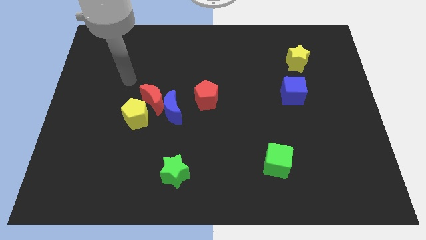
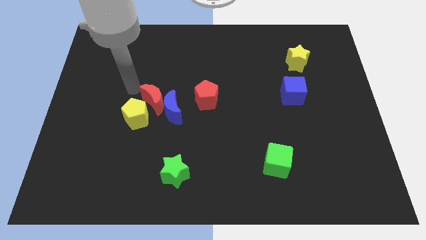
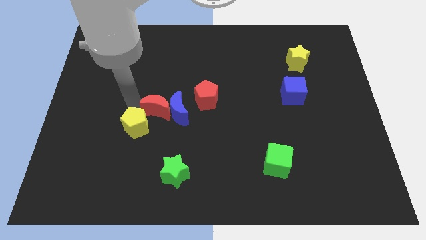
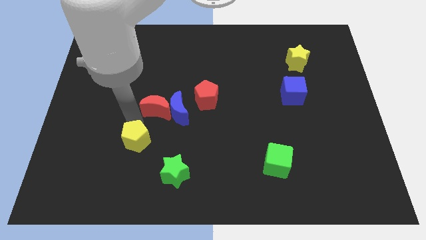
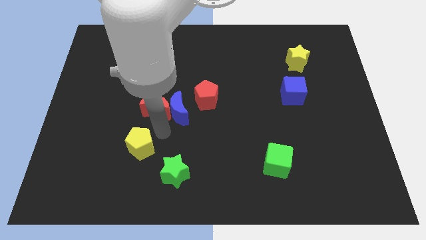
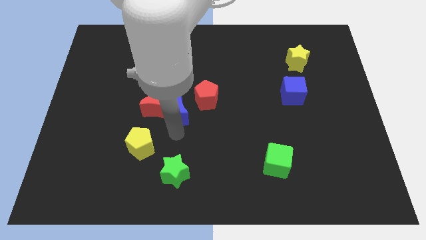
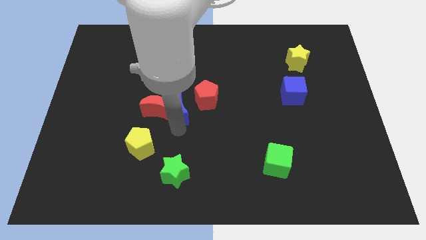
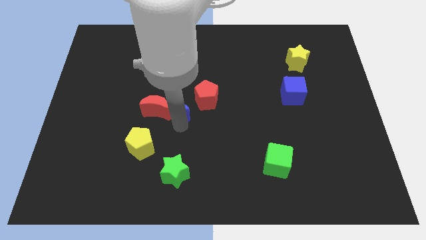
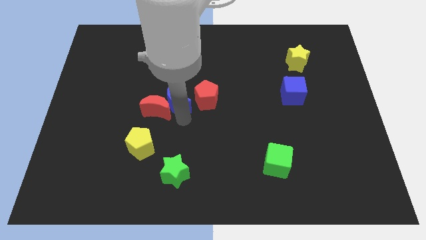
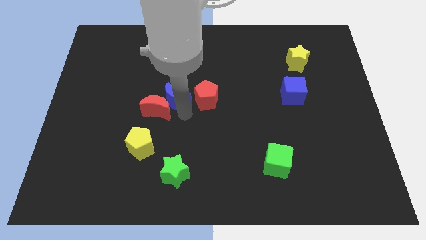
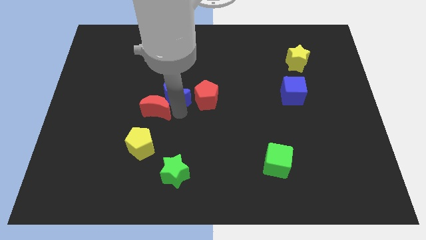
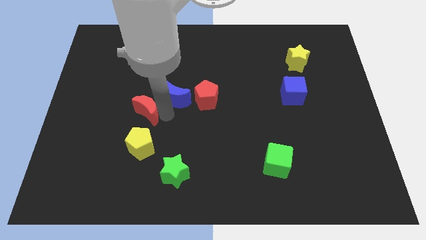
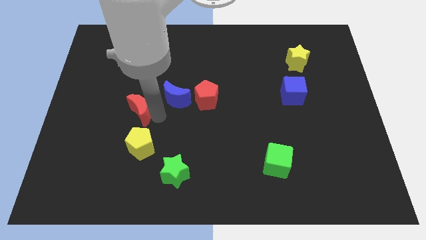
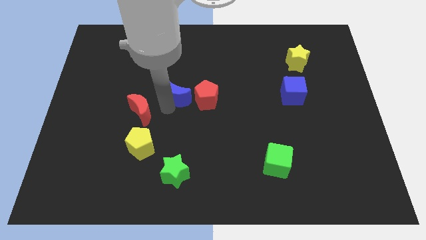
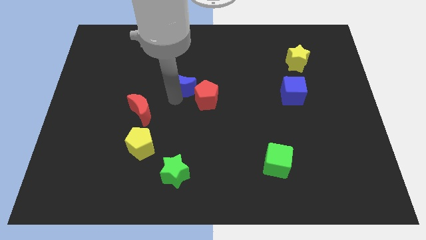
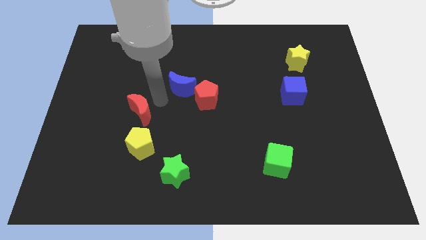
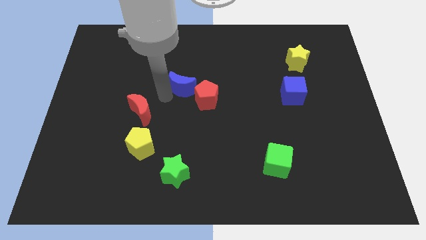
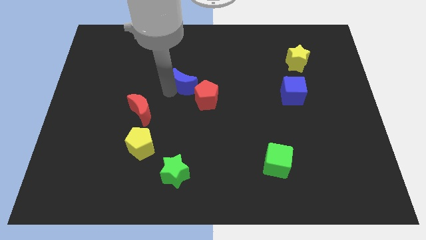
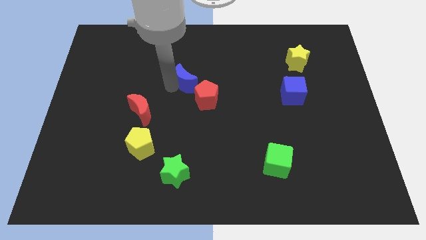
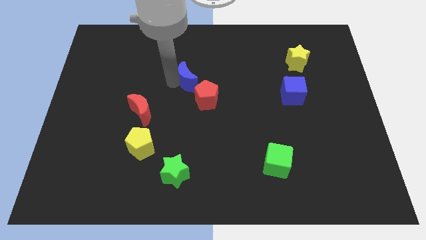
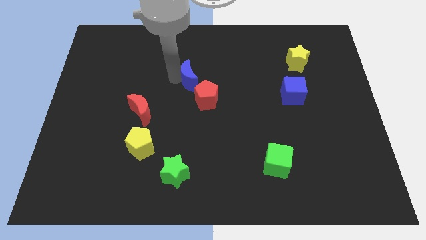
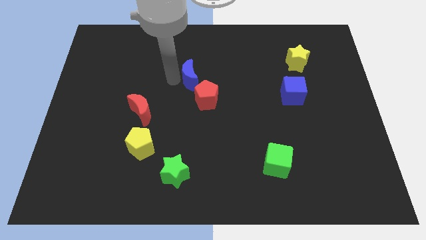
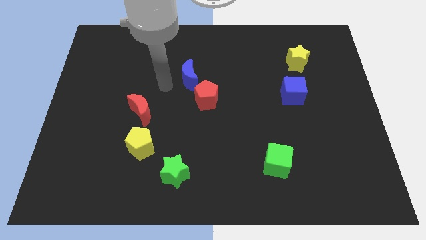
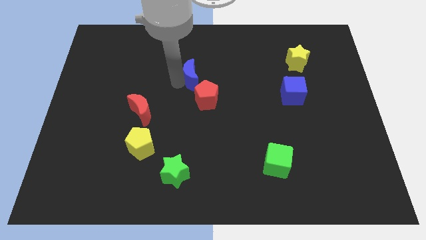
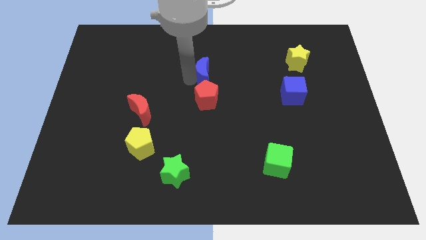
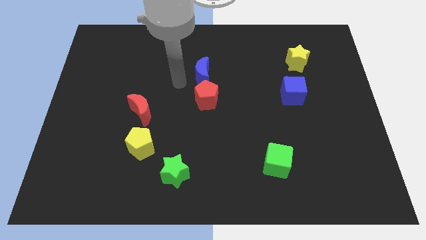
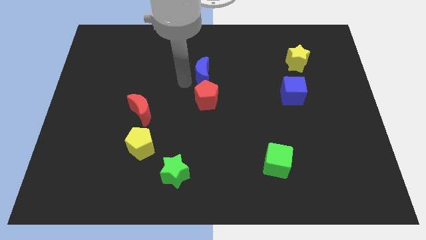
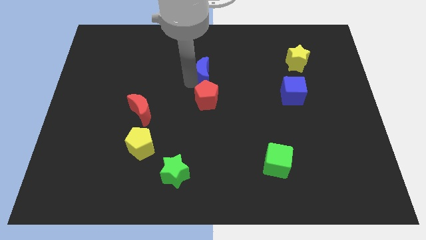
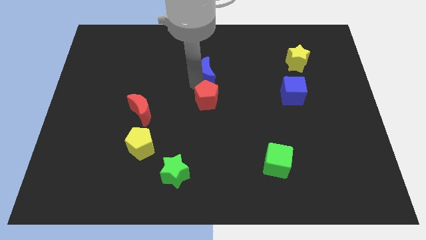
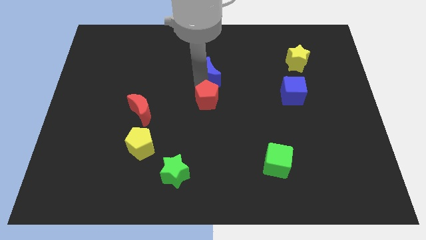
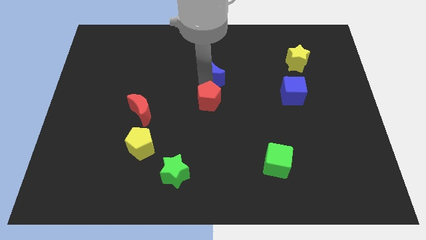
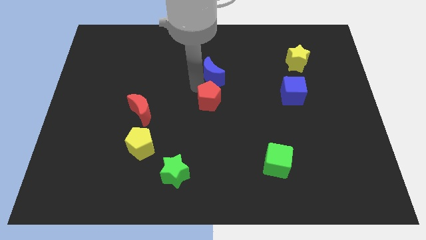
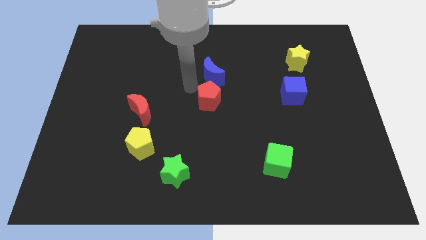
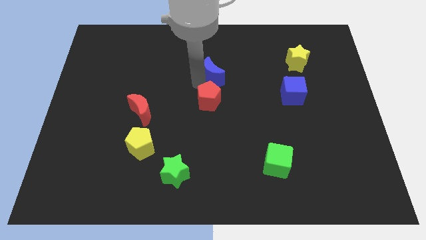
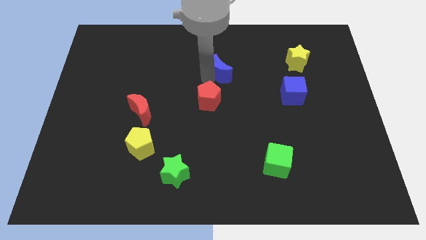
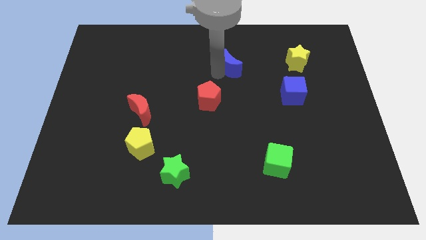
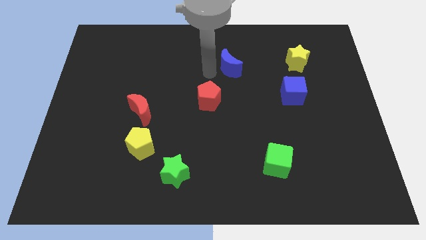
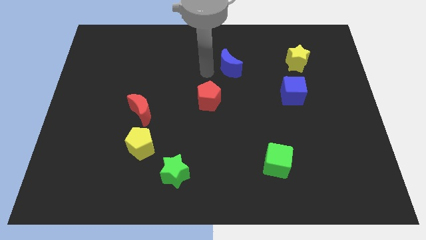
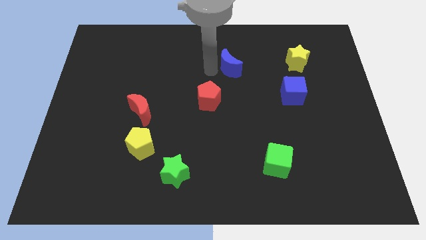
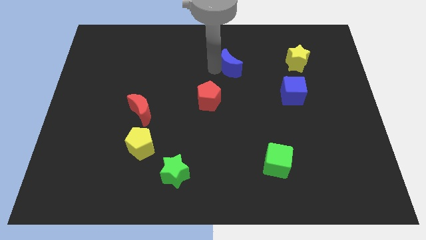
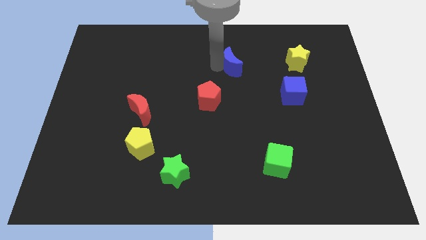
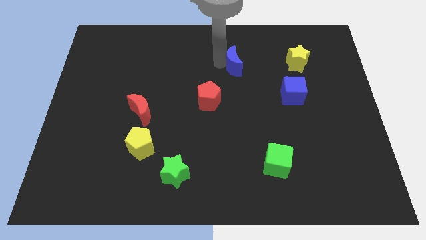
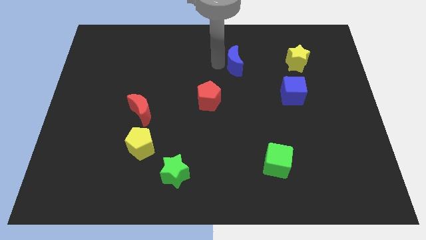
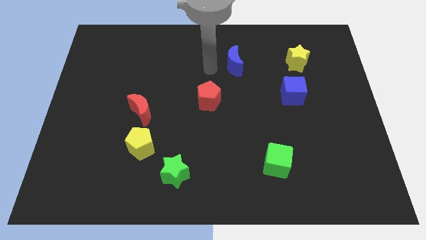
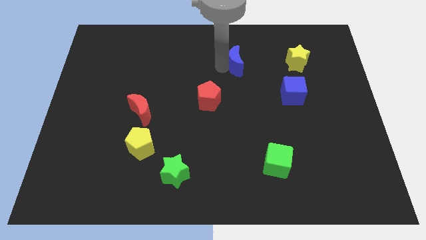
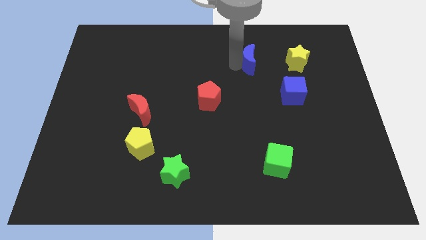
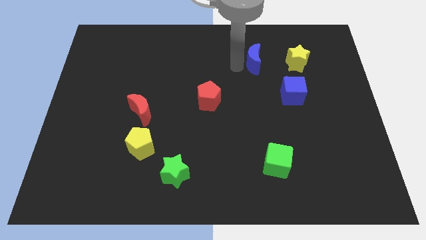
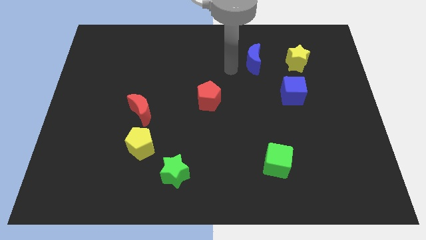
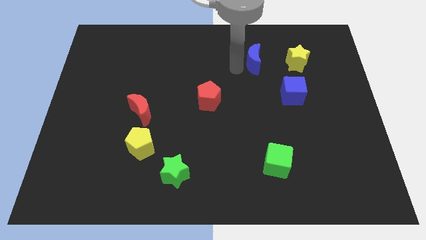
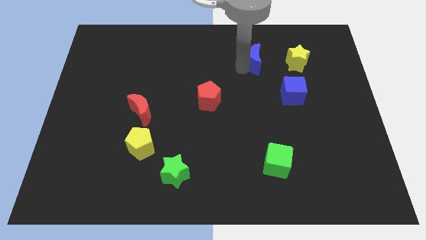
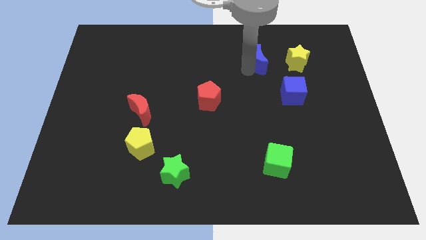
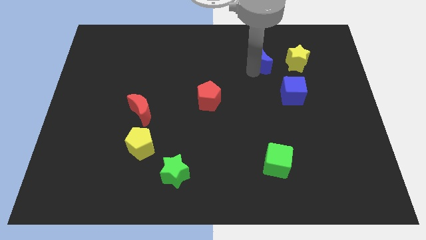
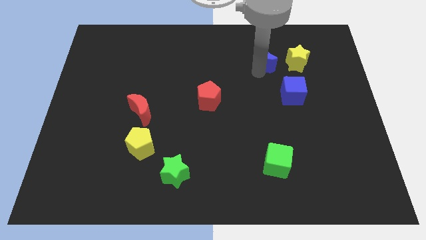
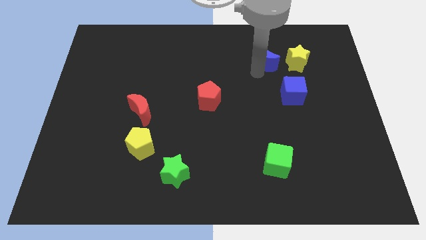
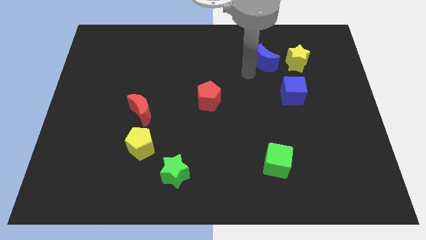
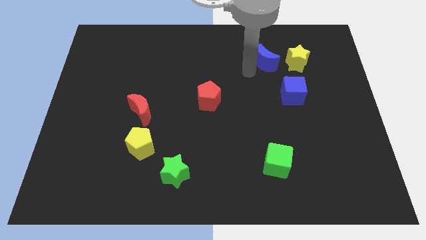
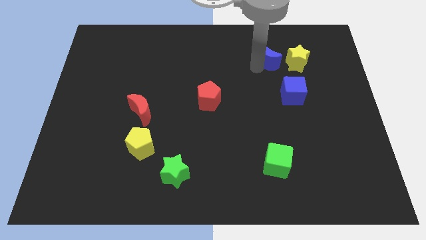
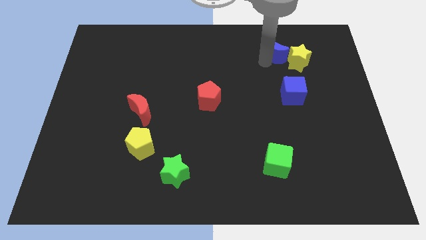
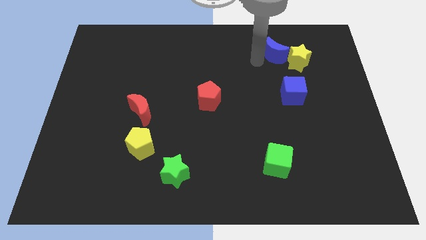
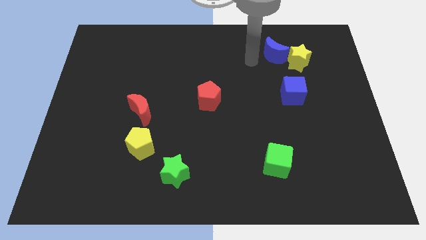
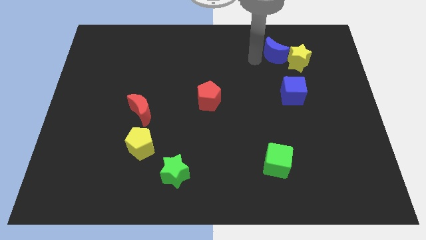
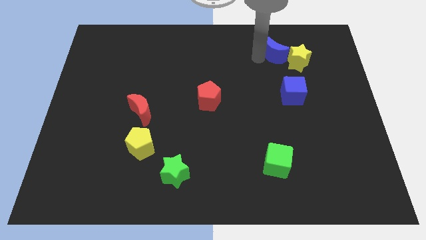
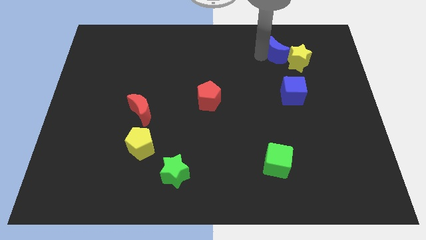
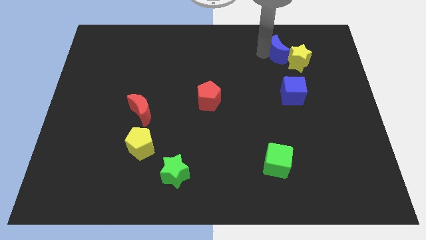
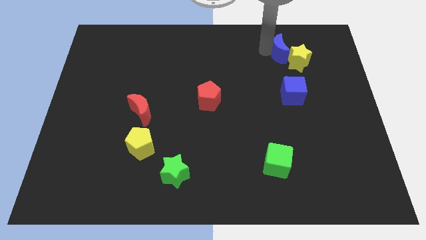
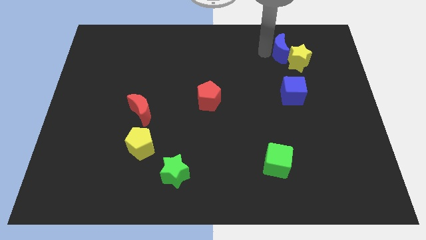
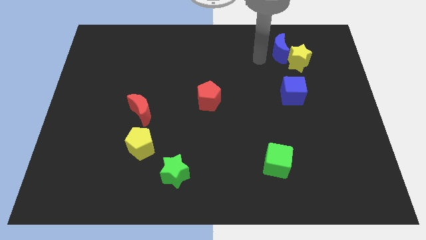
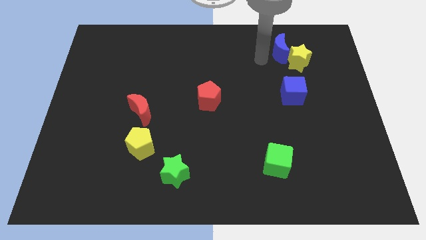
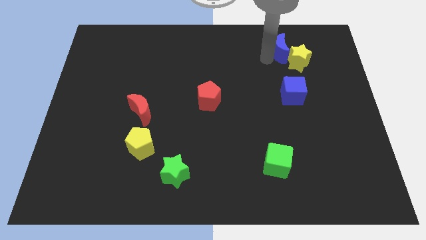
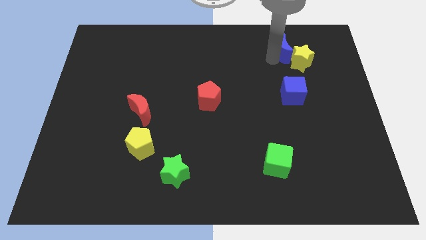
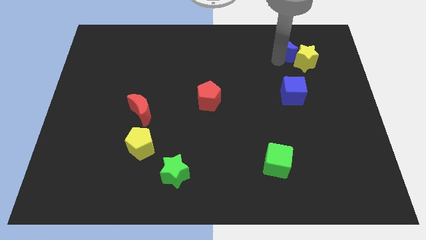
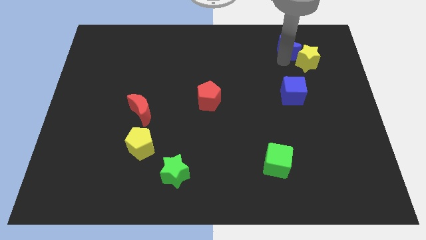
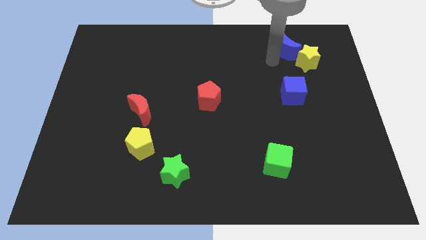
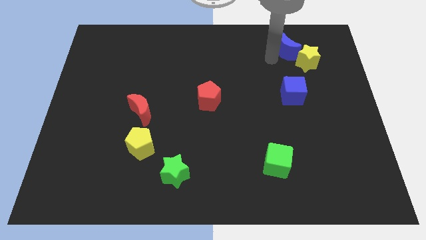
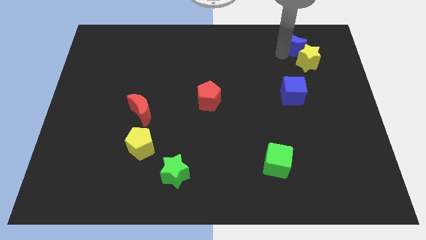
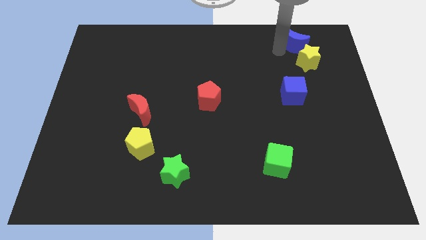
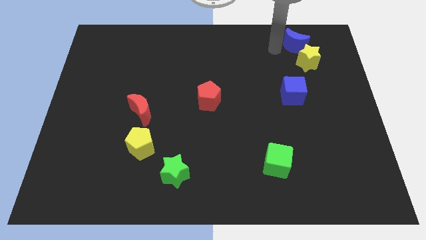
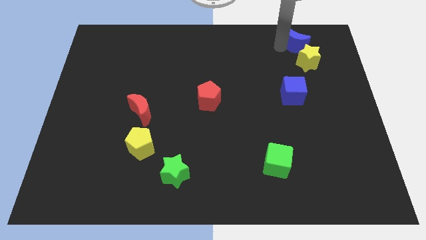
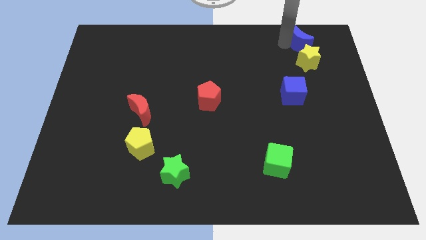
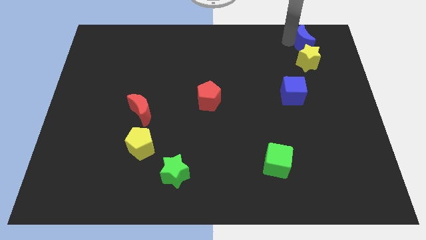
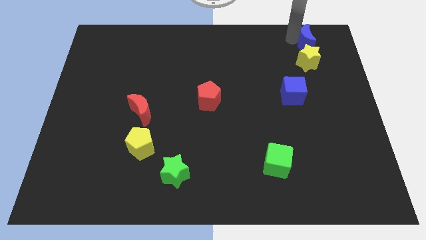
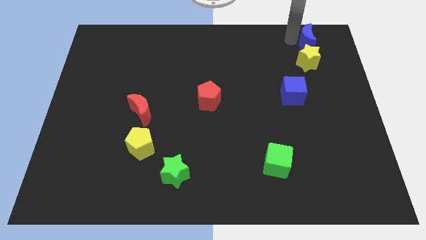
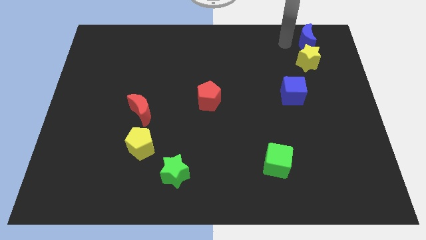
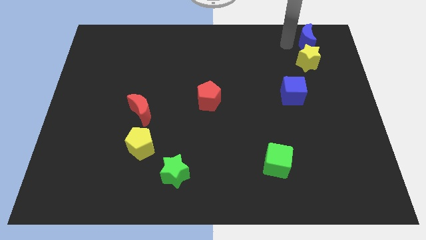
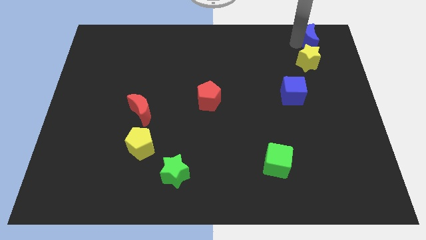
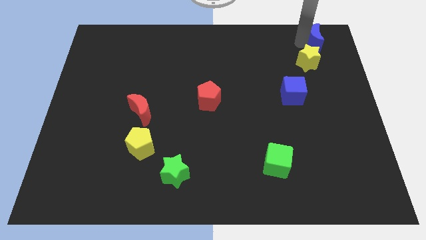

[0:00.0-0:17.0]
put the blue moon to the top right
